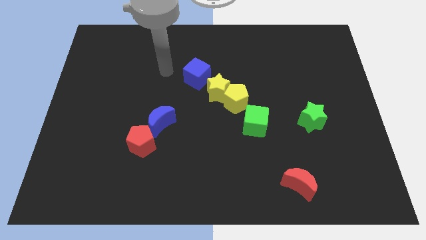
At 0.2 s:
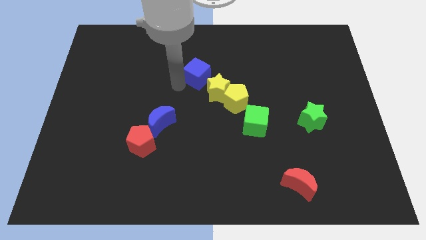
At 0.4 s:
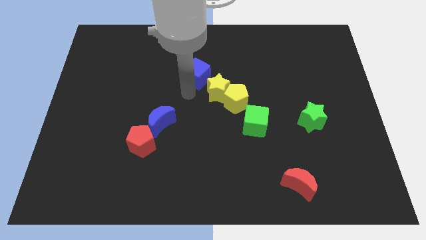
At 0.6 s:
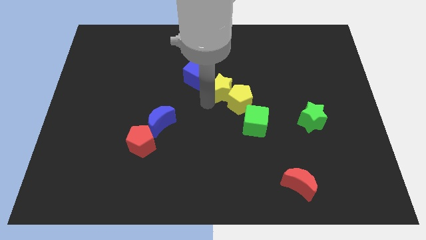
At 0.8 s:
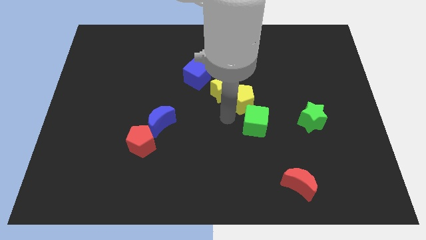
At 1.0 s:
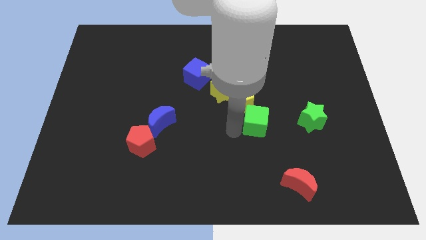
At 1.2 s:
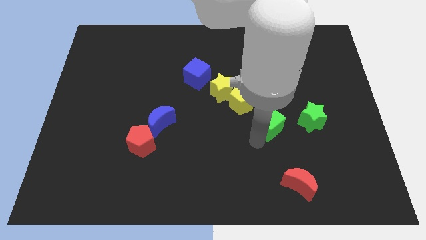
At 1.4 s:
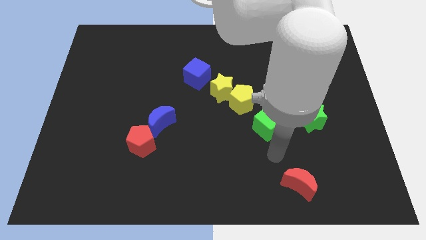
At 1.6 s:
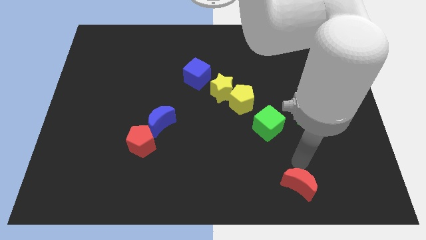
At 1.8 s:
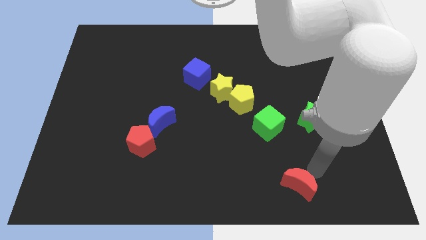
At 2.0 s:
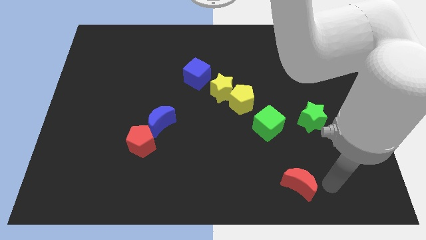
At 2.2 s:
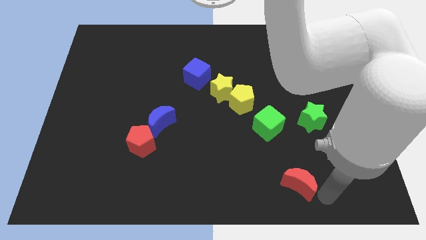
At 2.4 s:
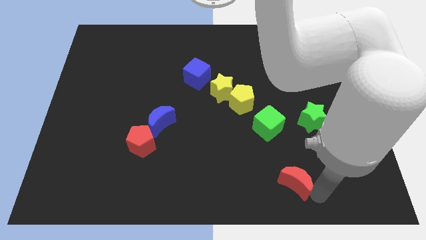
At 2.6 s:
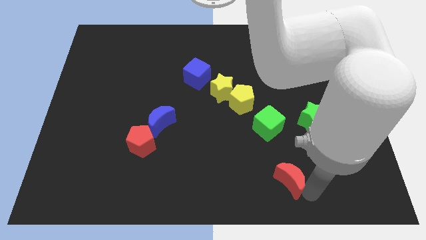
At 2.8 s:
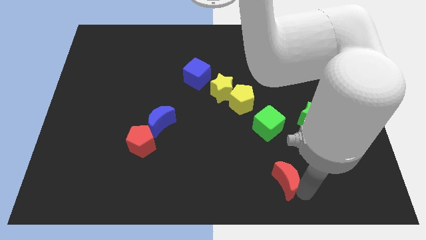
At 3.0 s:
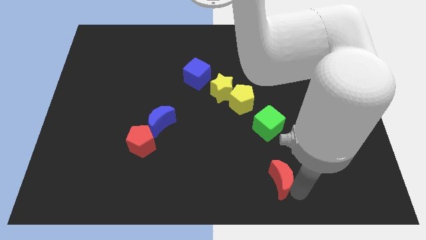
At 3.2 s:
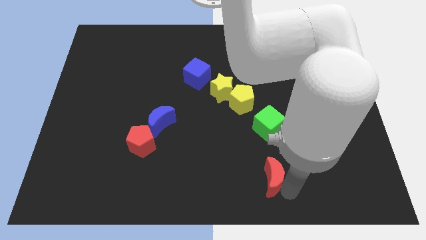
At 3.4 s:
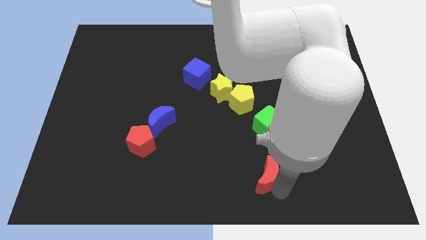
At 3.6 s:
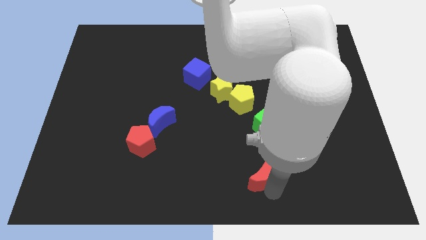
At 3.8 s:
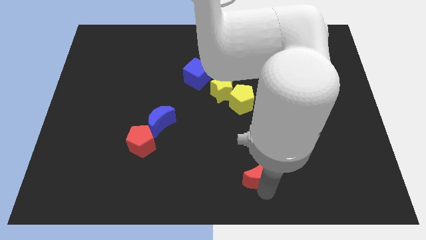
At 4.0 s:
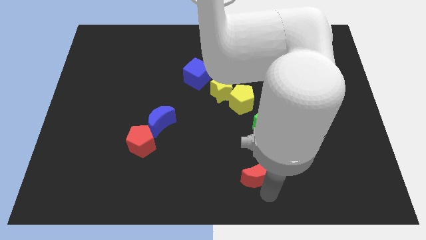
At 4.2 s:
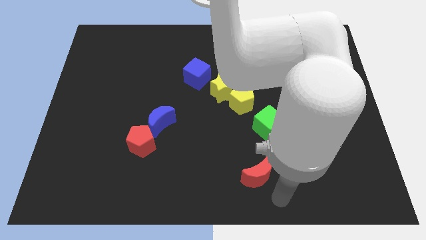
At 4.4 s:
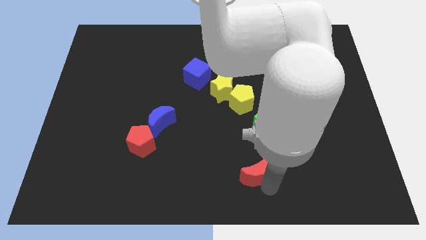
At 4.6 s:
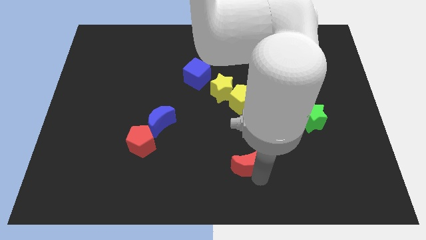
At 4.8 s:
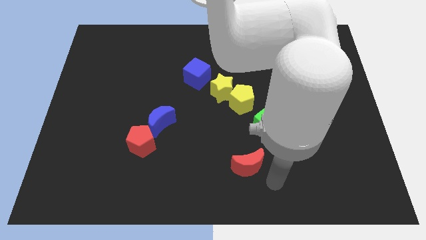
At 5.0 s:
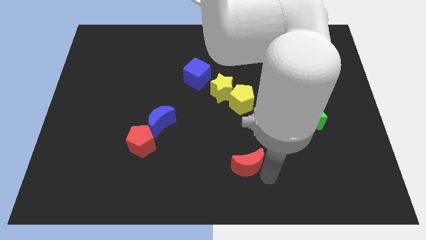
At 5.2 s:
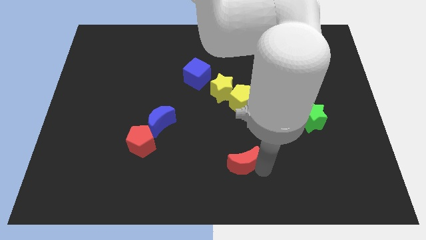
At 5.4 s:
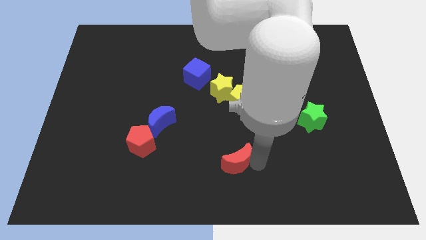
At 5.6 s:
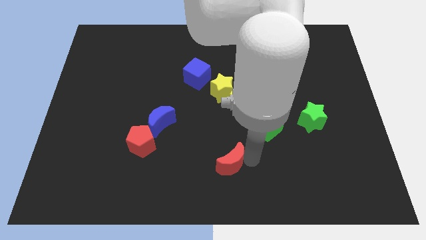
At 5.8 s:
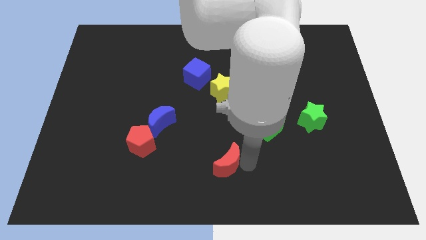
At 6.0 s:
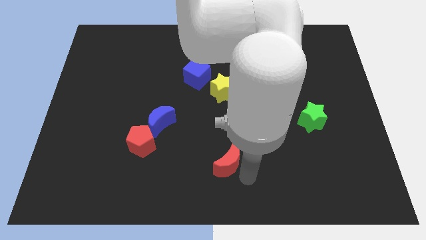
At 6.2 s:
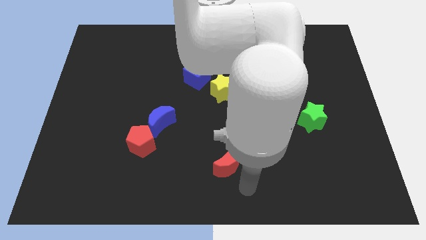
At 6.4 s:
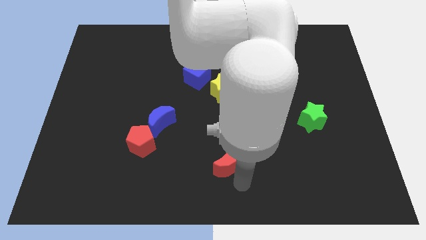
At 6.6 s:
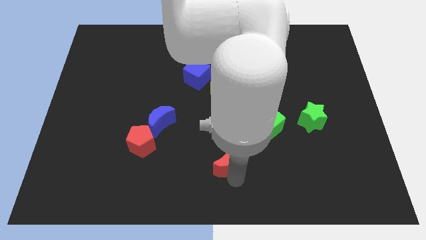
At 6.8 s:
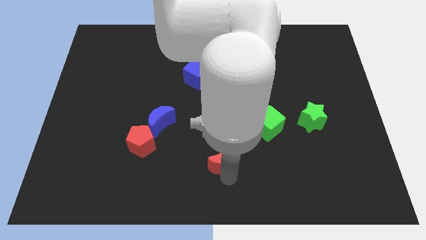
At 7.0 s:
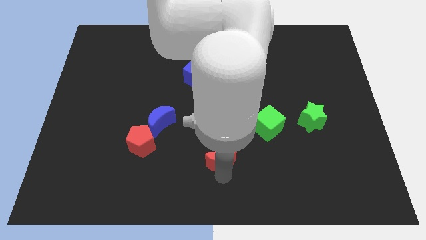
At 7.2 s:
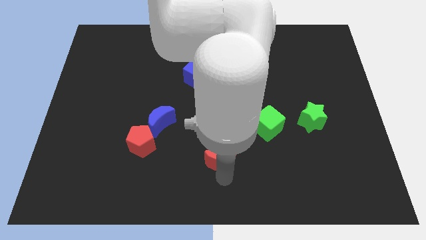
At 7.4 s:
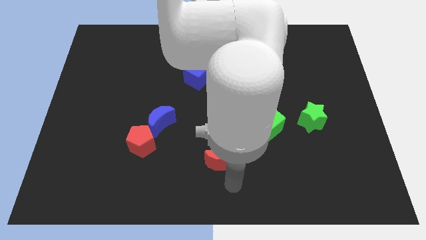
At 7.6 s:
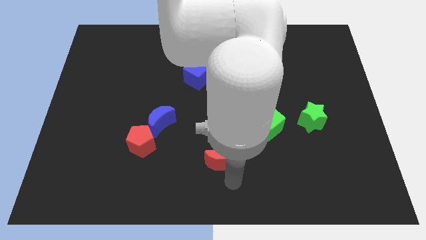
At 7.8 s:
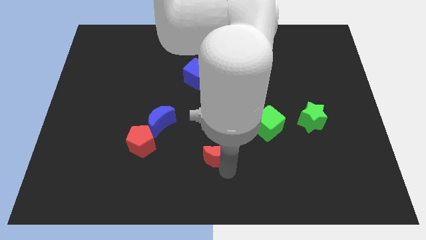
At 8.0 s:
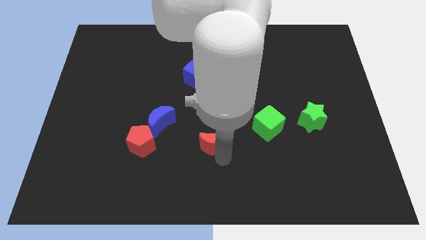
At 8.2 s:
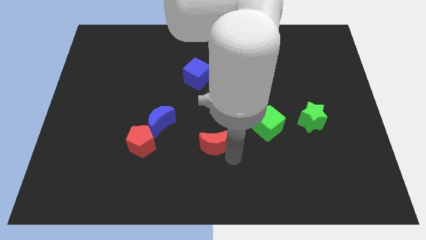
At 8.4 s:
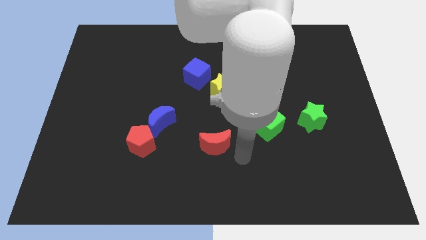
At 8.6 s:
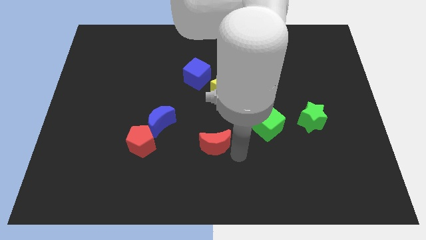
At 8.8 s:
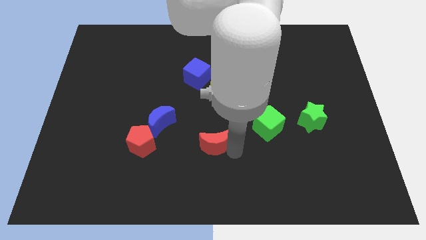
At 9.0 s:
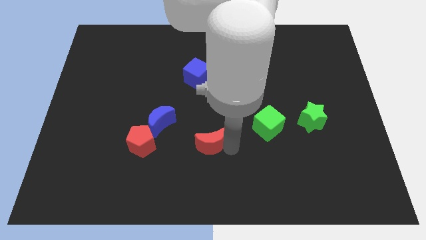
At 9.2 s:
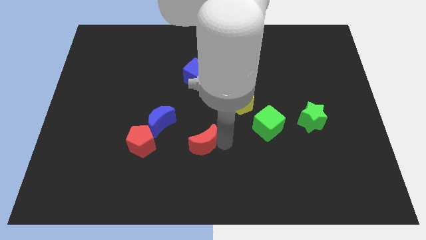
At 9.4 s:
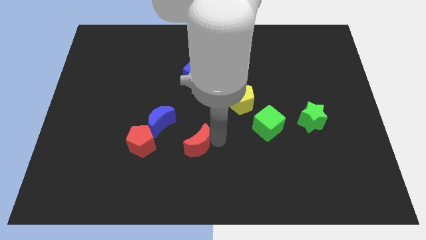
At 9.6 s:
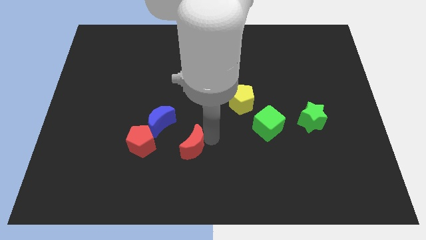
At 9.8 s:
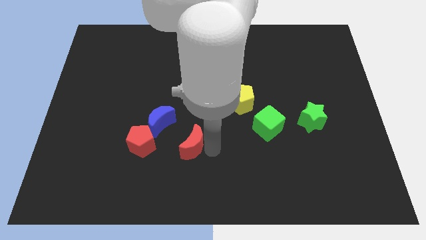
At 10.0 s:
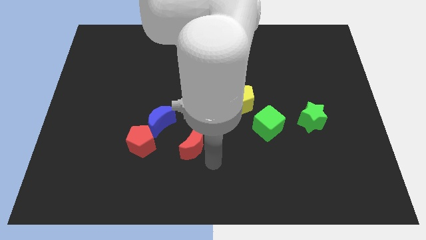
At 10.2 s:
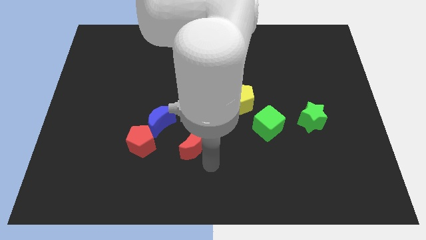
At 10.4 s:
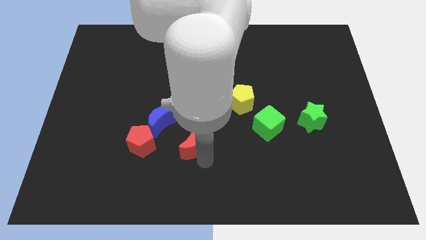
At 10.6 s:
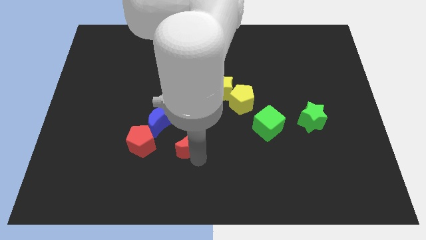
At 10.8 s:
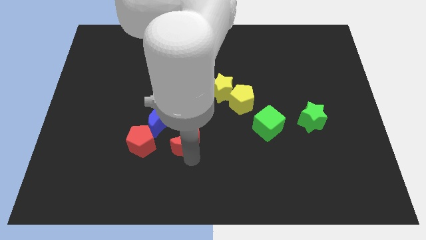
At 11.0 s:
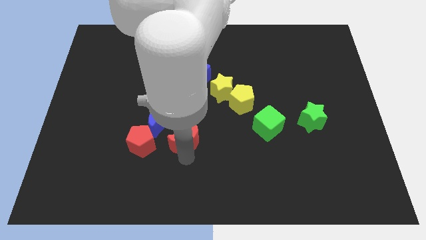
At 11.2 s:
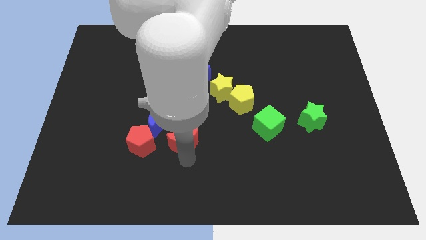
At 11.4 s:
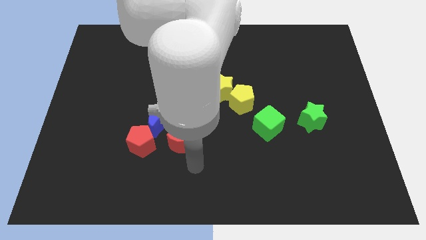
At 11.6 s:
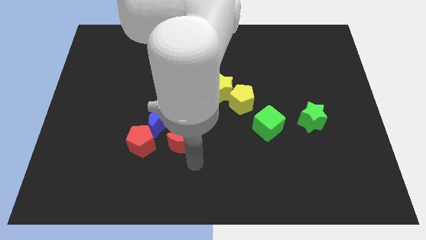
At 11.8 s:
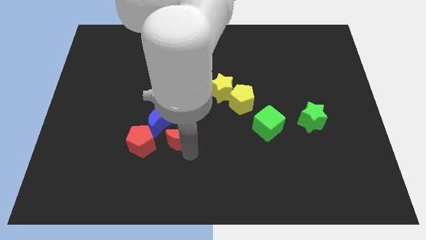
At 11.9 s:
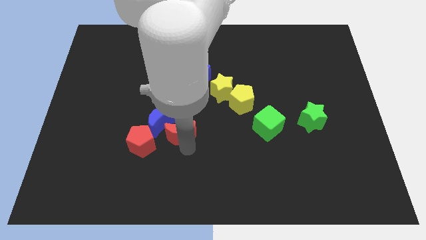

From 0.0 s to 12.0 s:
slide the red moon to the blue moon

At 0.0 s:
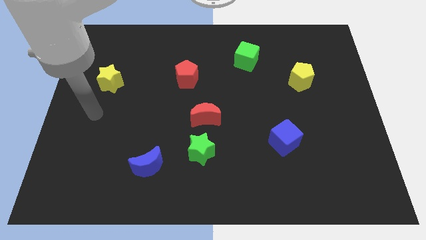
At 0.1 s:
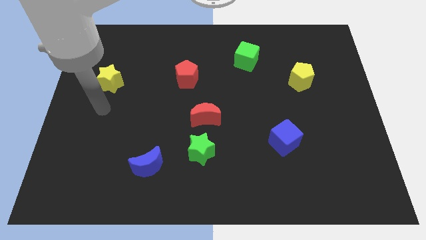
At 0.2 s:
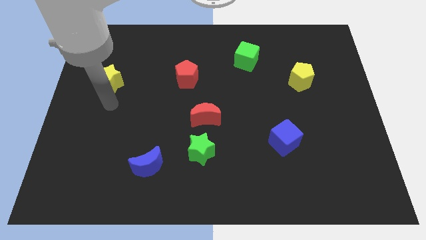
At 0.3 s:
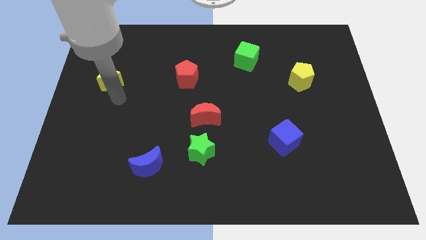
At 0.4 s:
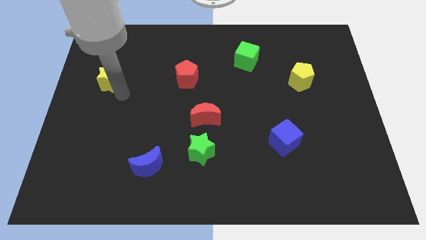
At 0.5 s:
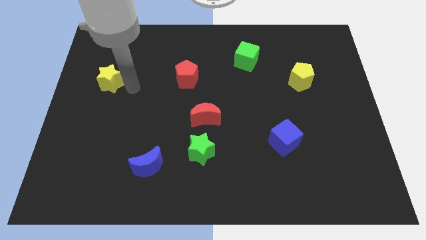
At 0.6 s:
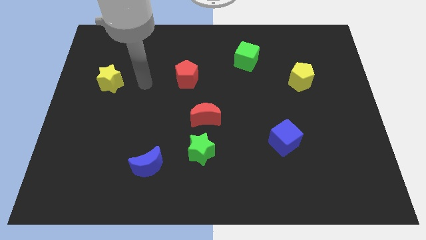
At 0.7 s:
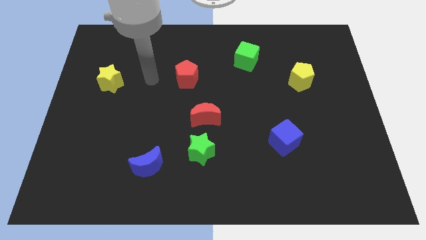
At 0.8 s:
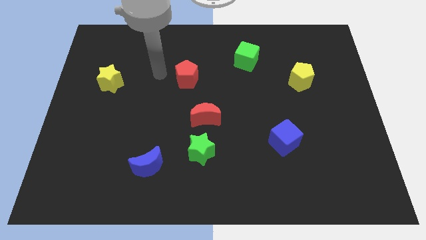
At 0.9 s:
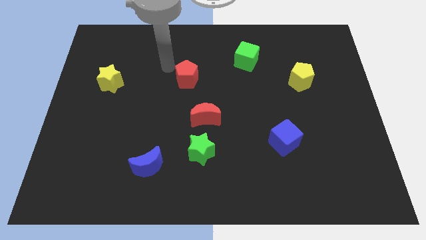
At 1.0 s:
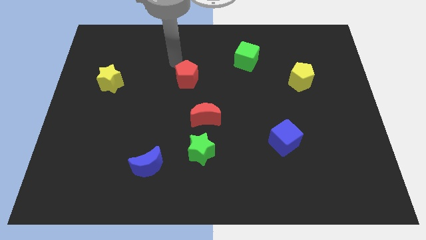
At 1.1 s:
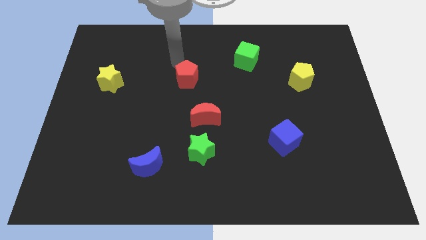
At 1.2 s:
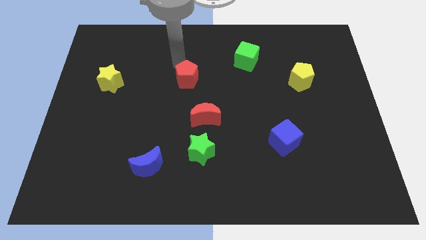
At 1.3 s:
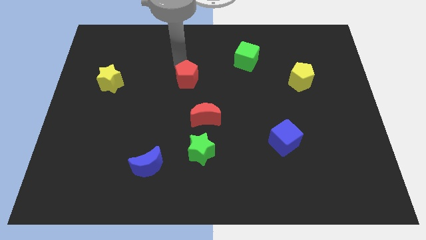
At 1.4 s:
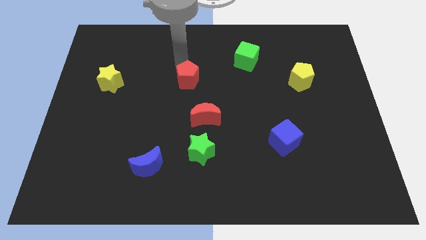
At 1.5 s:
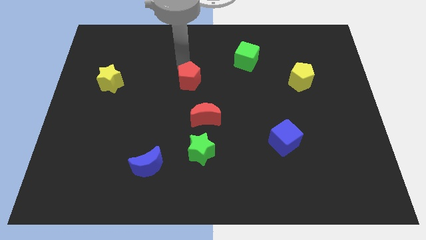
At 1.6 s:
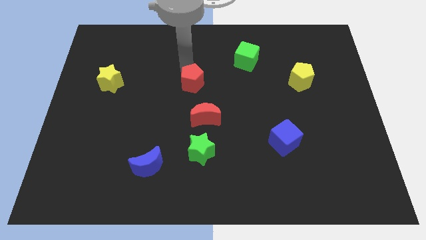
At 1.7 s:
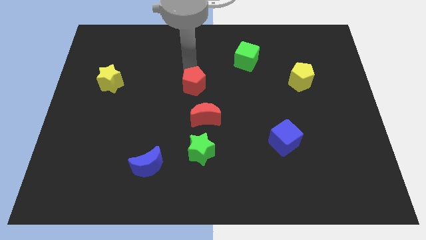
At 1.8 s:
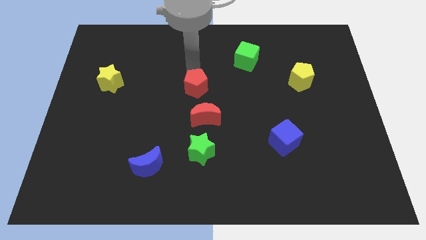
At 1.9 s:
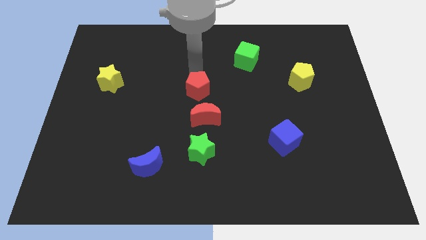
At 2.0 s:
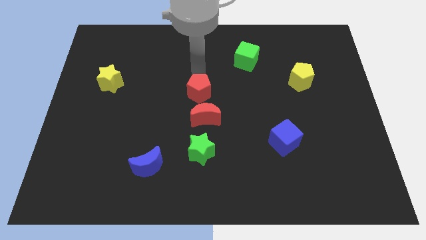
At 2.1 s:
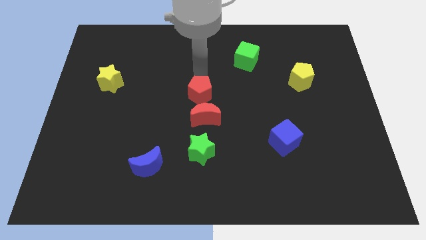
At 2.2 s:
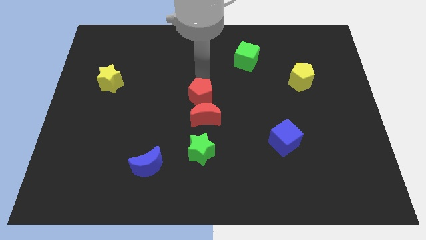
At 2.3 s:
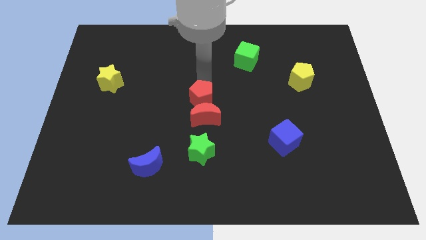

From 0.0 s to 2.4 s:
put the red pentagon next to the red moon
